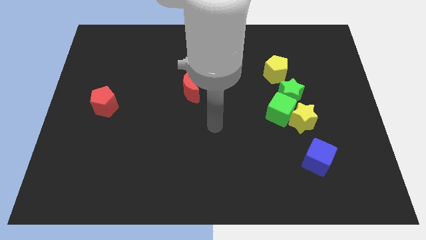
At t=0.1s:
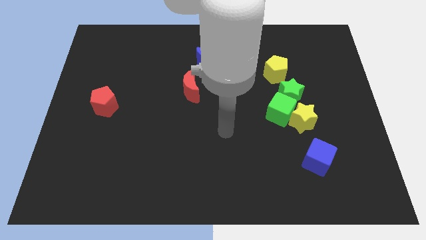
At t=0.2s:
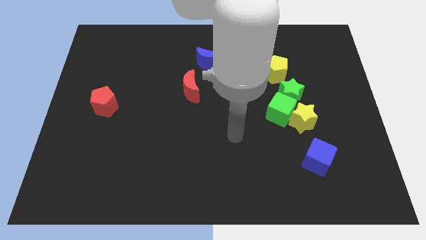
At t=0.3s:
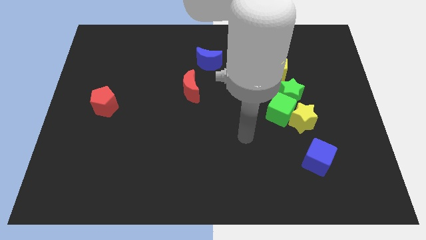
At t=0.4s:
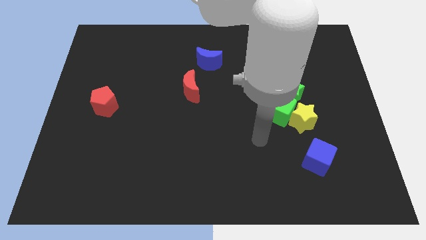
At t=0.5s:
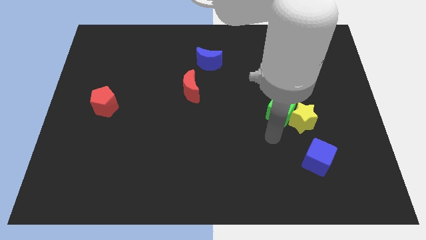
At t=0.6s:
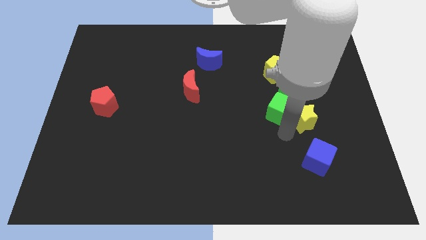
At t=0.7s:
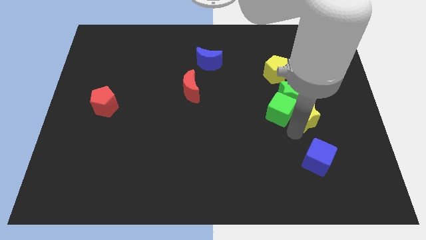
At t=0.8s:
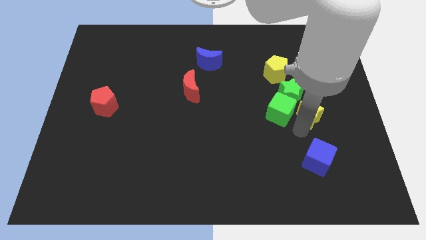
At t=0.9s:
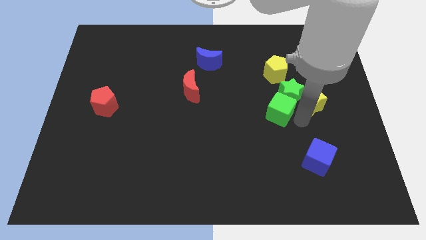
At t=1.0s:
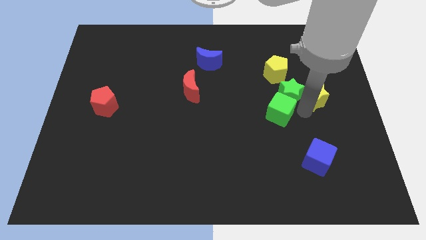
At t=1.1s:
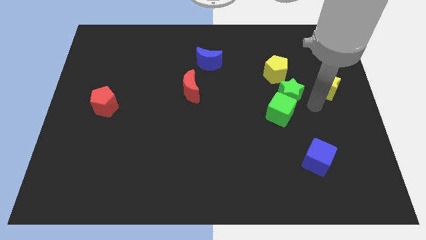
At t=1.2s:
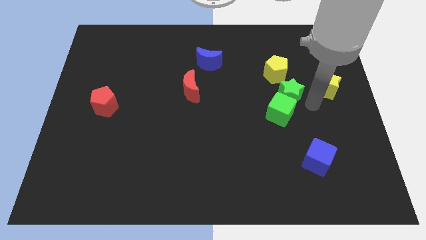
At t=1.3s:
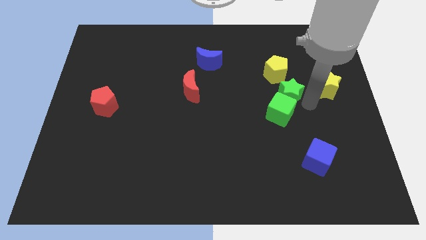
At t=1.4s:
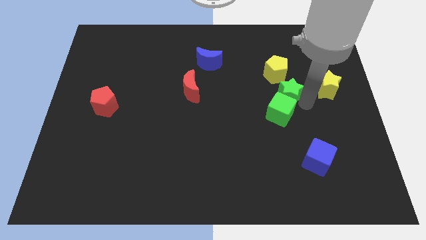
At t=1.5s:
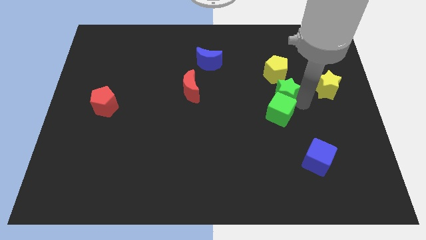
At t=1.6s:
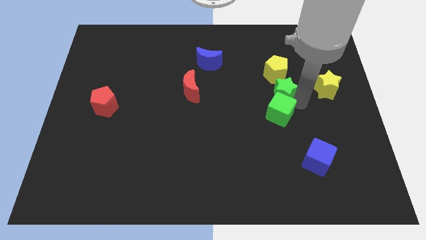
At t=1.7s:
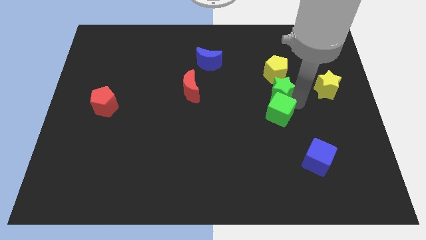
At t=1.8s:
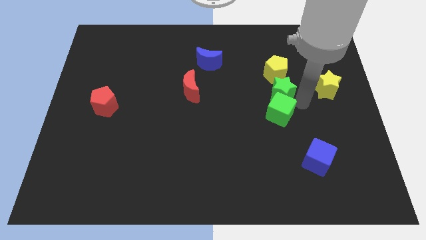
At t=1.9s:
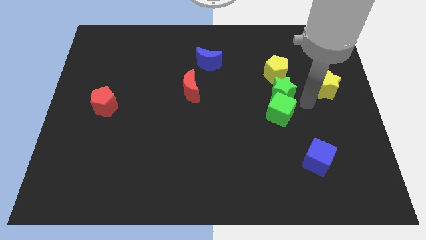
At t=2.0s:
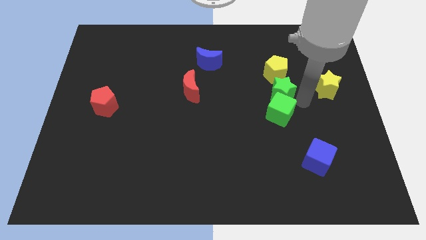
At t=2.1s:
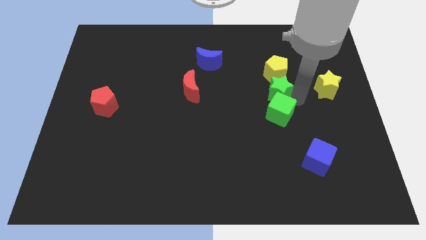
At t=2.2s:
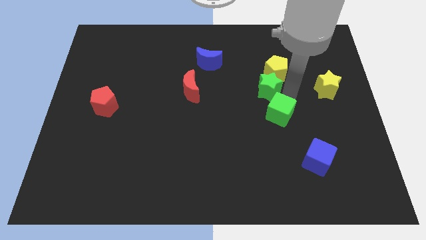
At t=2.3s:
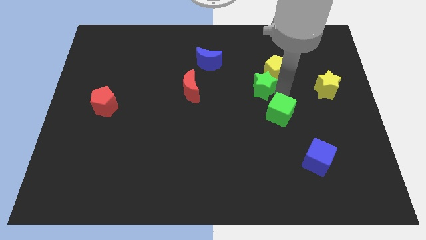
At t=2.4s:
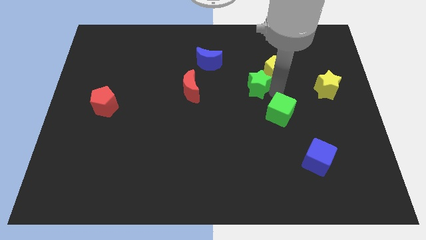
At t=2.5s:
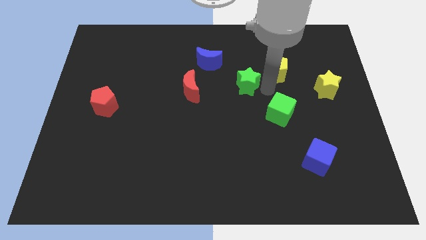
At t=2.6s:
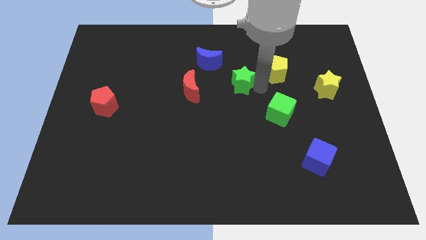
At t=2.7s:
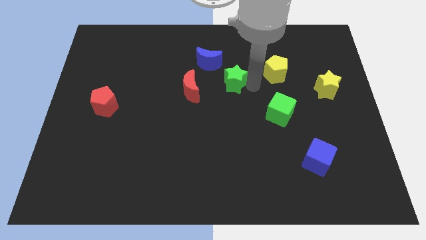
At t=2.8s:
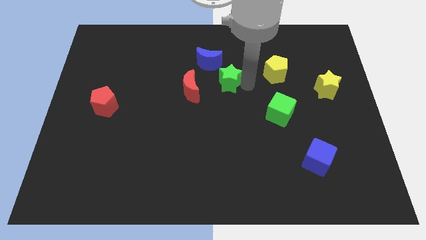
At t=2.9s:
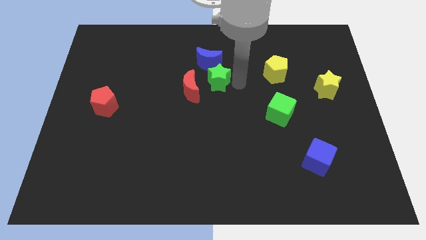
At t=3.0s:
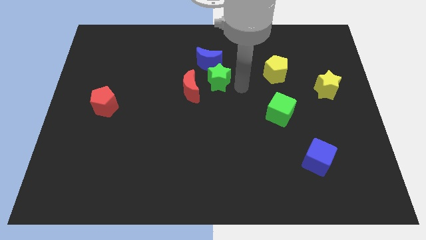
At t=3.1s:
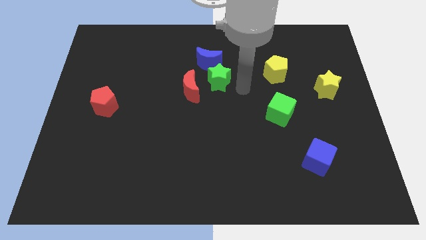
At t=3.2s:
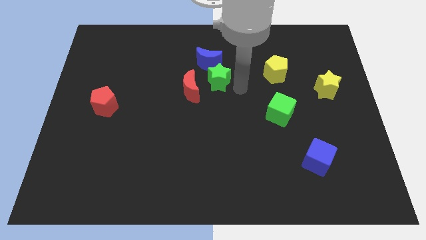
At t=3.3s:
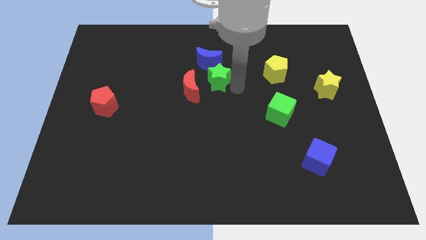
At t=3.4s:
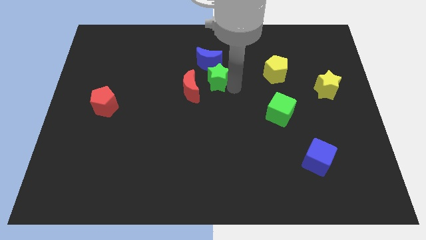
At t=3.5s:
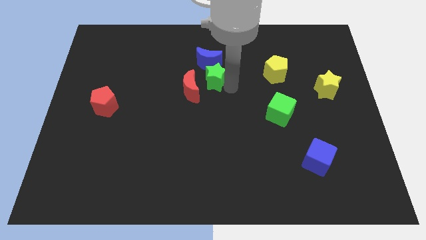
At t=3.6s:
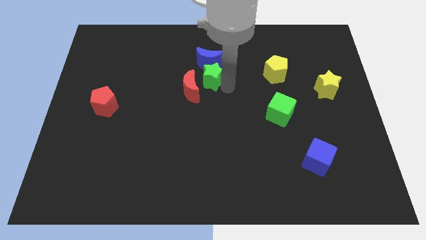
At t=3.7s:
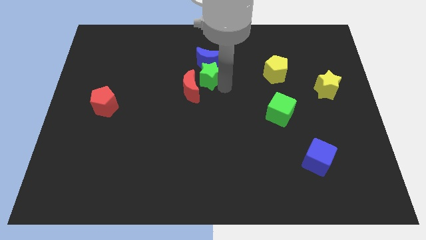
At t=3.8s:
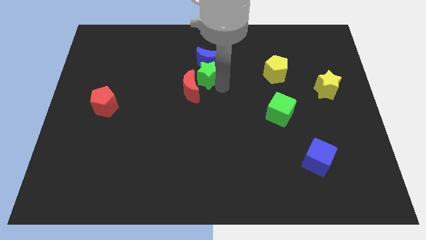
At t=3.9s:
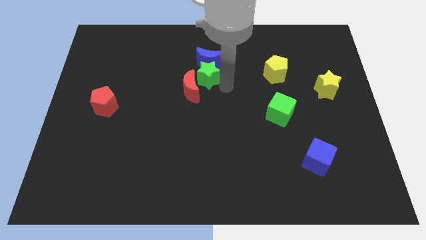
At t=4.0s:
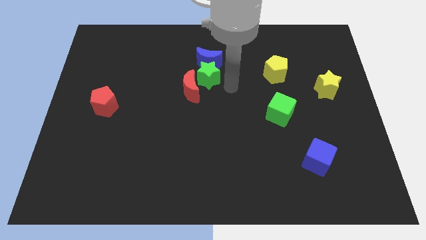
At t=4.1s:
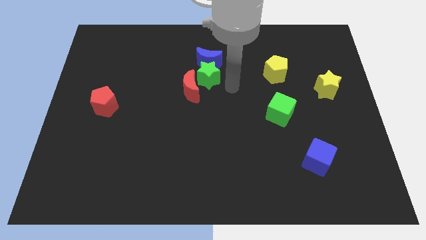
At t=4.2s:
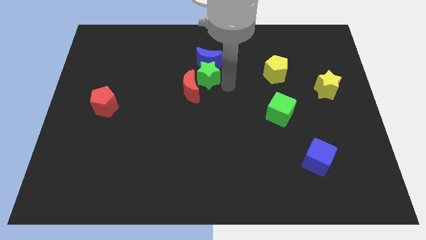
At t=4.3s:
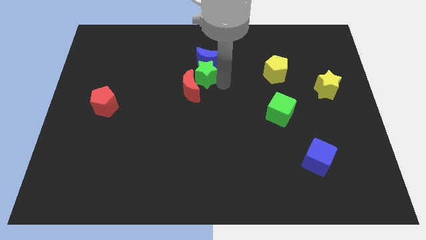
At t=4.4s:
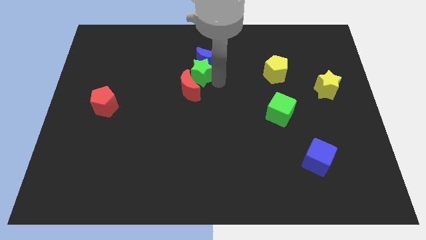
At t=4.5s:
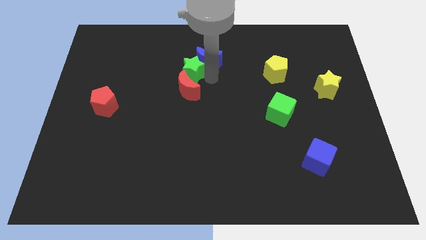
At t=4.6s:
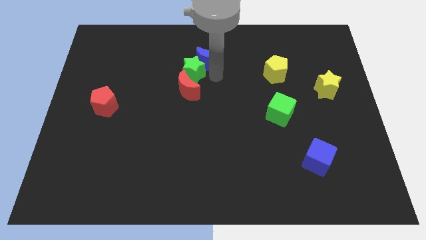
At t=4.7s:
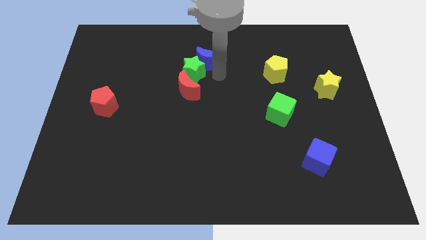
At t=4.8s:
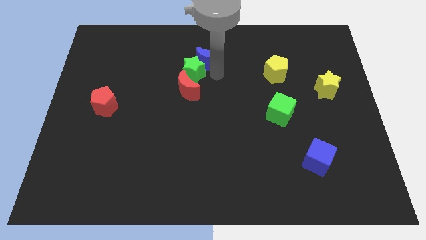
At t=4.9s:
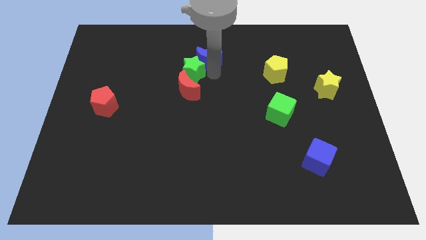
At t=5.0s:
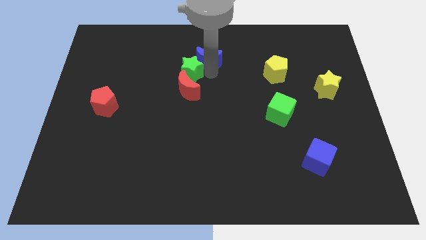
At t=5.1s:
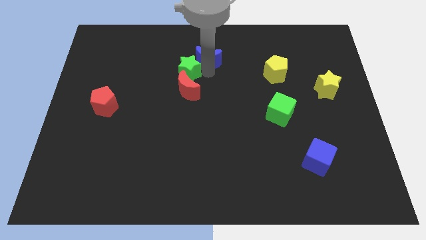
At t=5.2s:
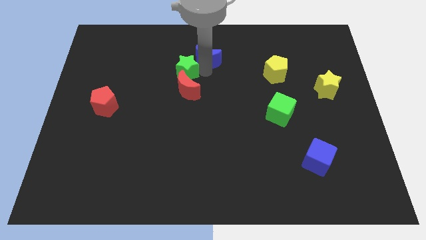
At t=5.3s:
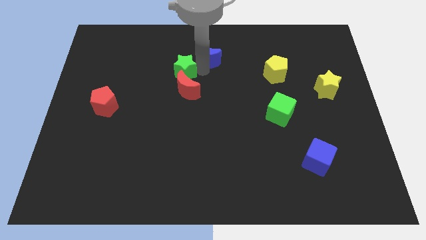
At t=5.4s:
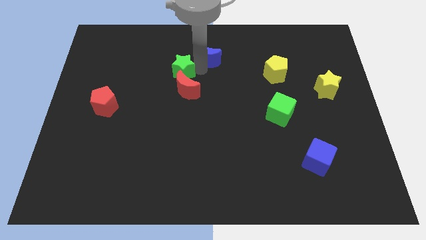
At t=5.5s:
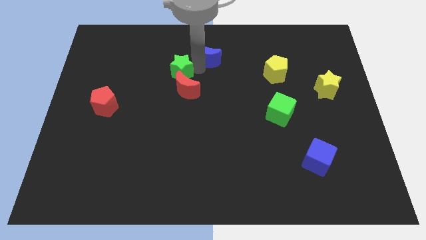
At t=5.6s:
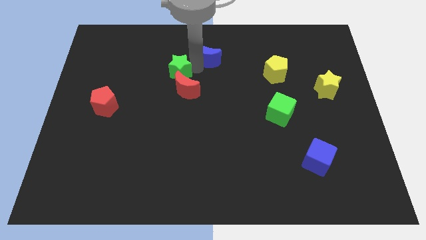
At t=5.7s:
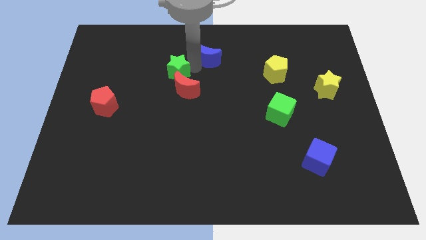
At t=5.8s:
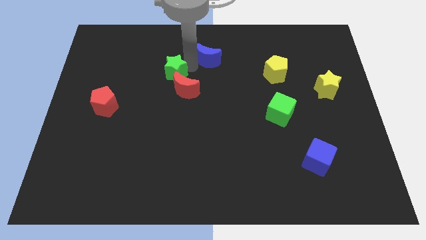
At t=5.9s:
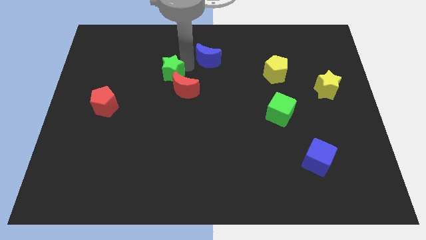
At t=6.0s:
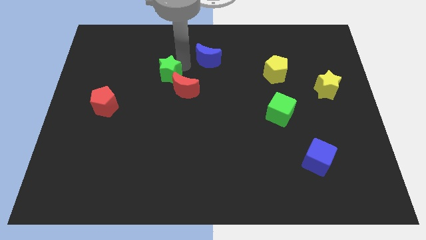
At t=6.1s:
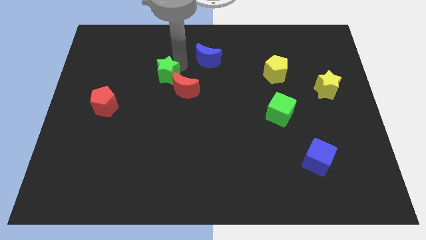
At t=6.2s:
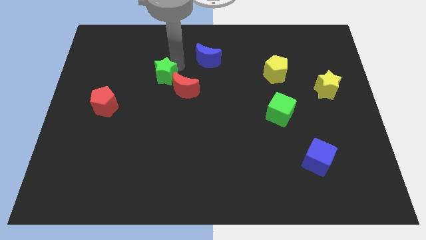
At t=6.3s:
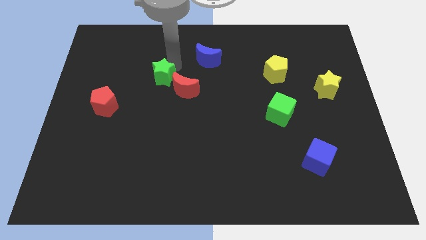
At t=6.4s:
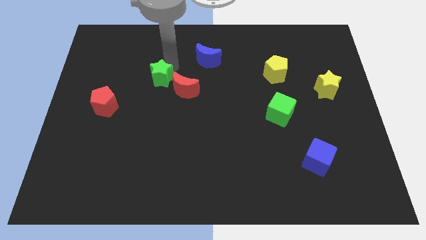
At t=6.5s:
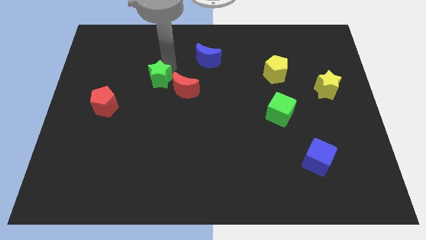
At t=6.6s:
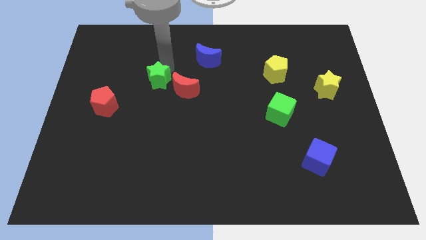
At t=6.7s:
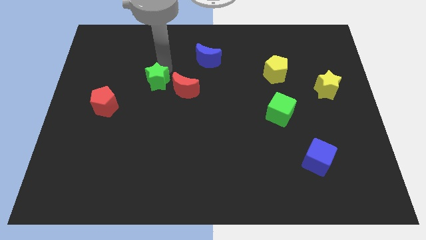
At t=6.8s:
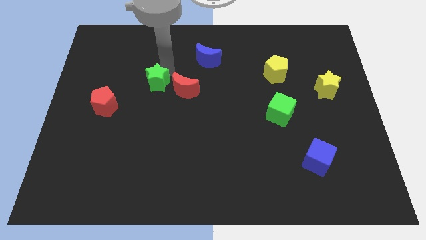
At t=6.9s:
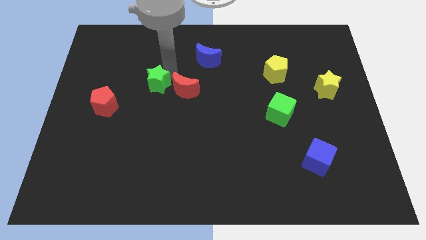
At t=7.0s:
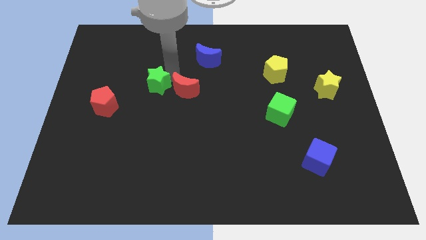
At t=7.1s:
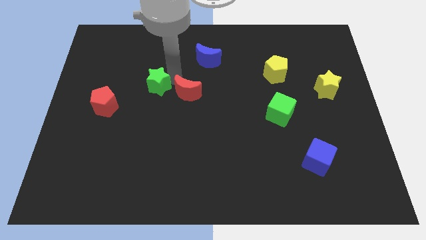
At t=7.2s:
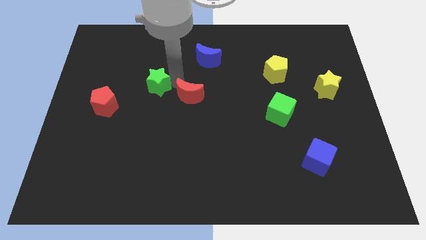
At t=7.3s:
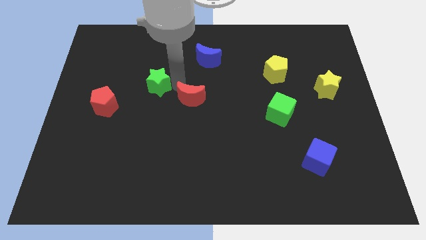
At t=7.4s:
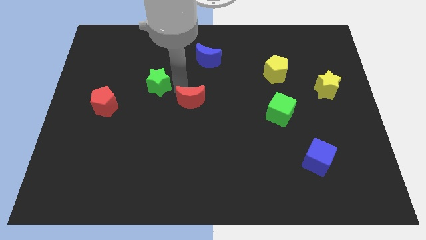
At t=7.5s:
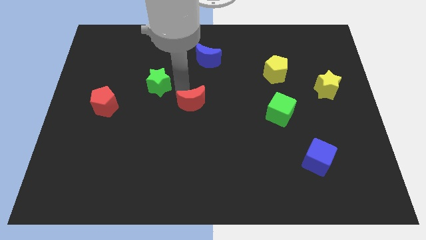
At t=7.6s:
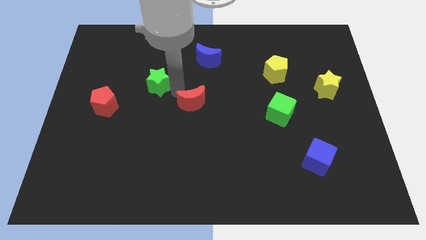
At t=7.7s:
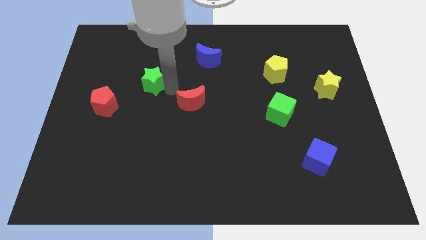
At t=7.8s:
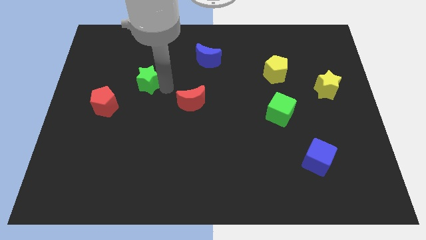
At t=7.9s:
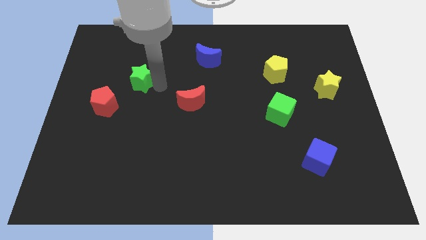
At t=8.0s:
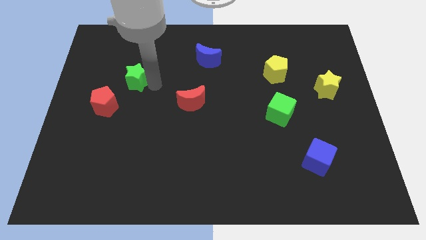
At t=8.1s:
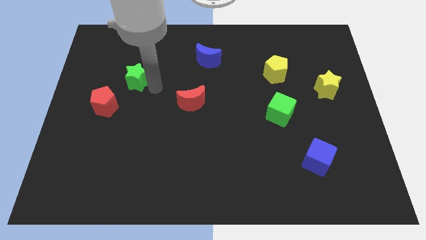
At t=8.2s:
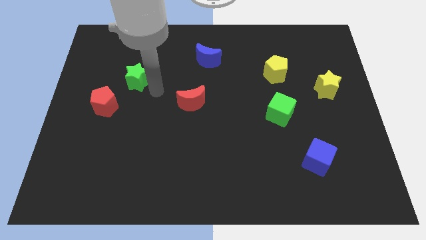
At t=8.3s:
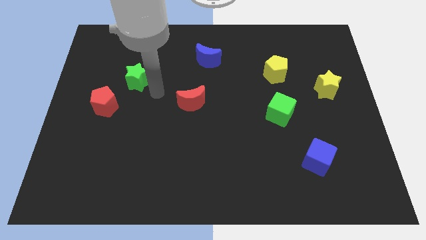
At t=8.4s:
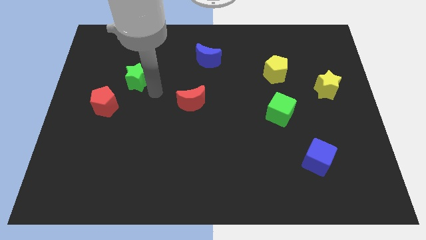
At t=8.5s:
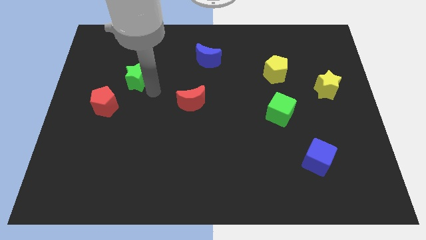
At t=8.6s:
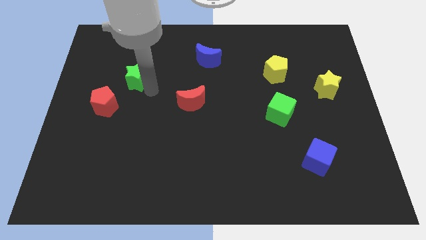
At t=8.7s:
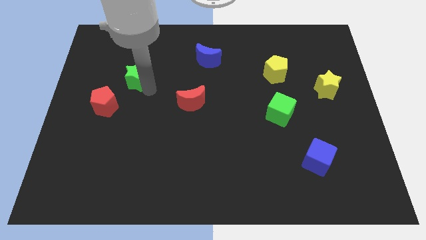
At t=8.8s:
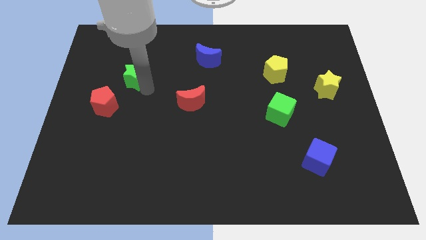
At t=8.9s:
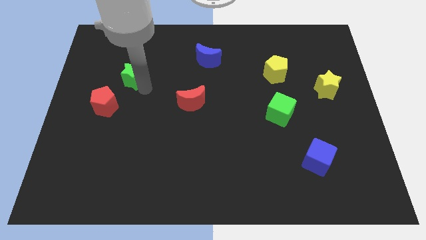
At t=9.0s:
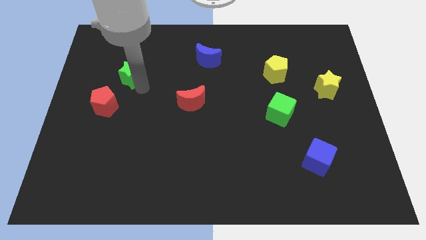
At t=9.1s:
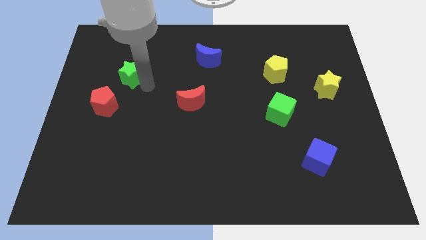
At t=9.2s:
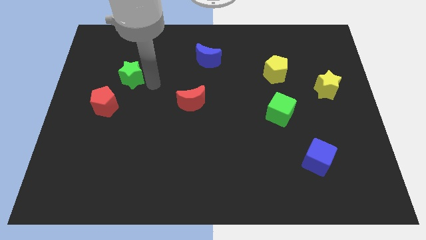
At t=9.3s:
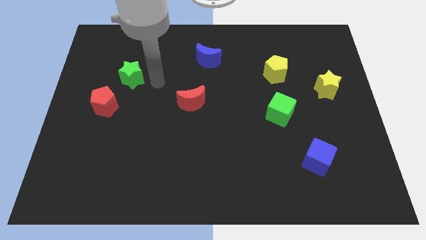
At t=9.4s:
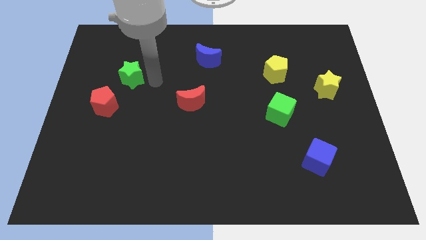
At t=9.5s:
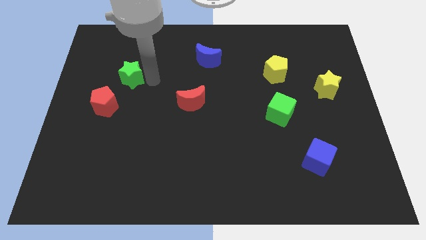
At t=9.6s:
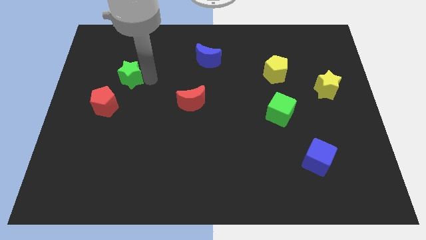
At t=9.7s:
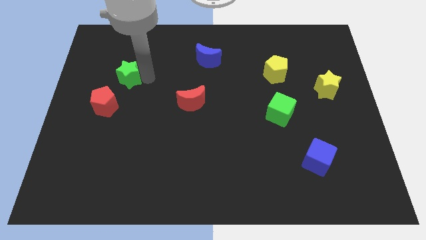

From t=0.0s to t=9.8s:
move the green star above the red pentagon
